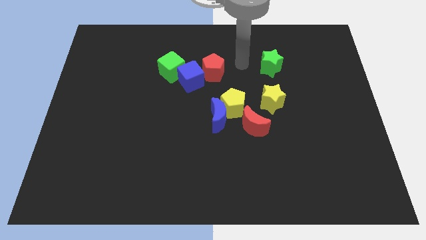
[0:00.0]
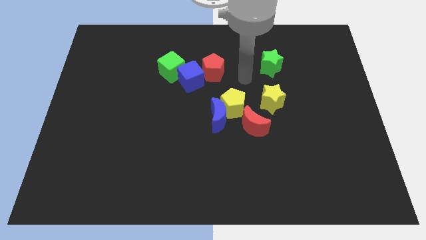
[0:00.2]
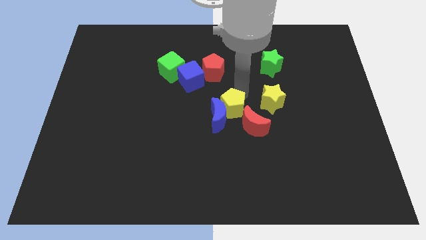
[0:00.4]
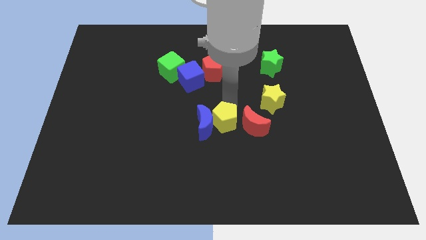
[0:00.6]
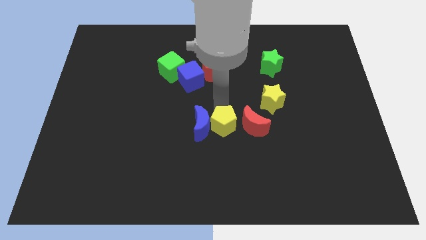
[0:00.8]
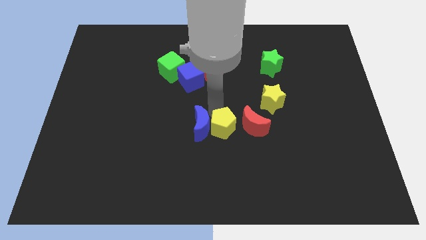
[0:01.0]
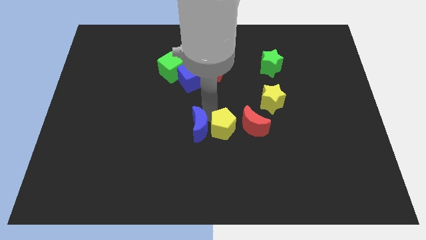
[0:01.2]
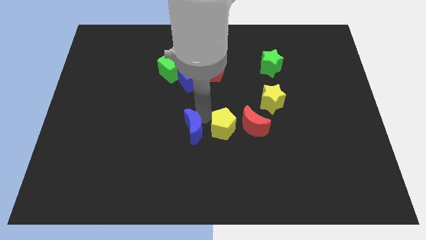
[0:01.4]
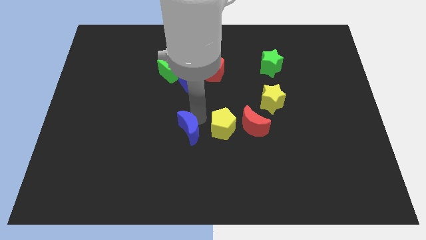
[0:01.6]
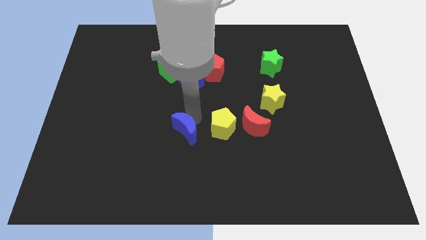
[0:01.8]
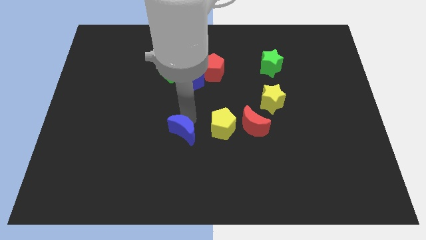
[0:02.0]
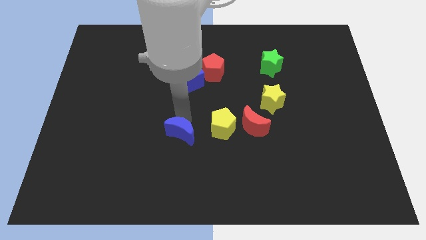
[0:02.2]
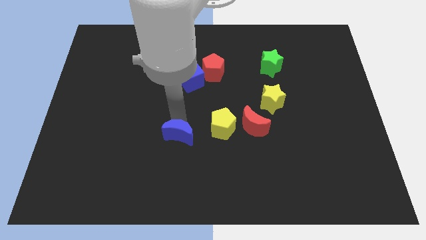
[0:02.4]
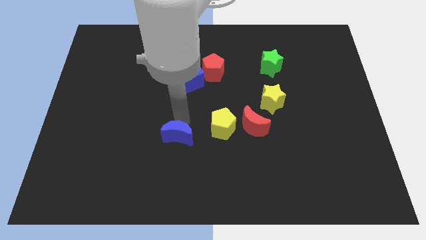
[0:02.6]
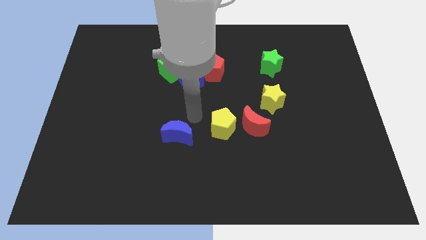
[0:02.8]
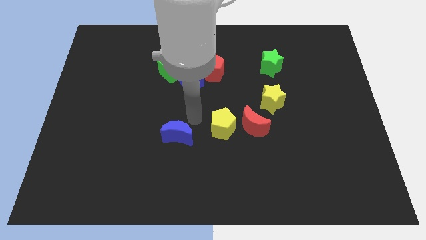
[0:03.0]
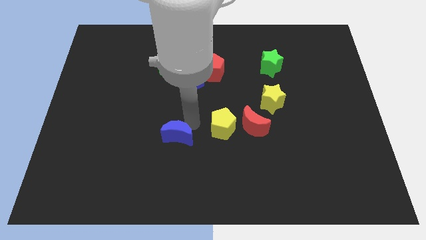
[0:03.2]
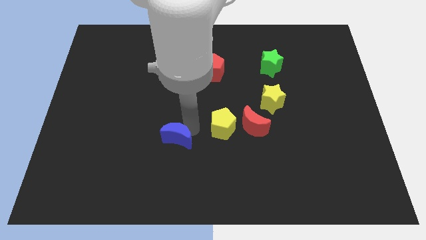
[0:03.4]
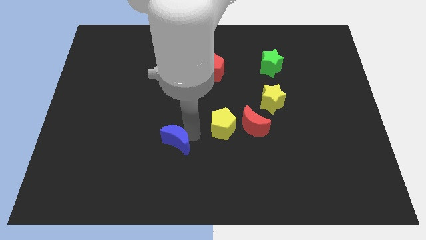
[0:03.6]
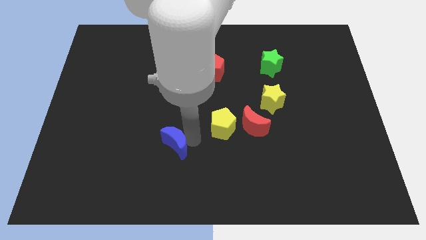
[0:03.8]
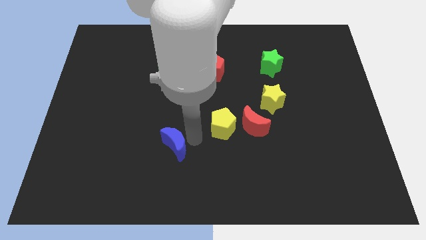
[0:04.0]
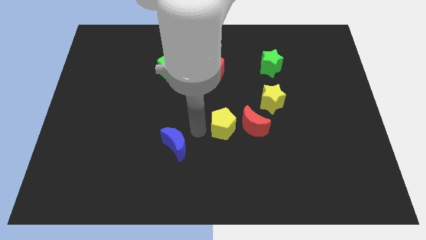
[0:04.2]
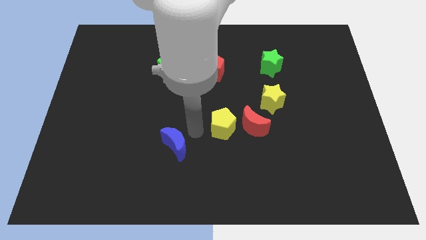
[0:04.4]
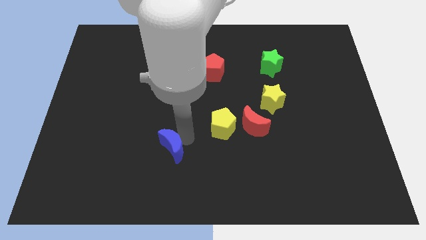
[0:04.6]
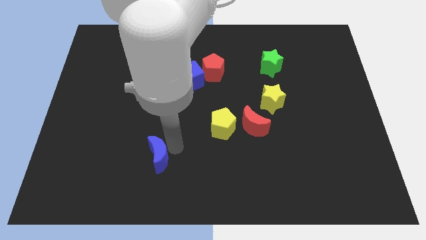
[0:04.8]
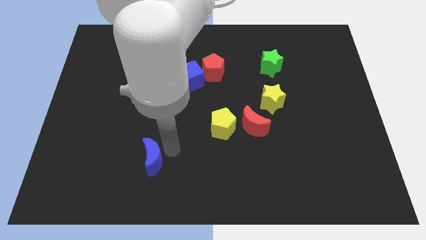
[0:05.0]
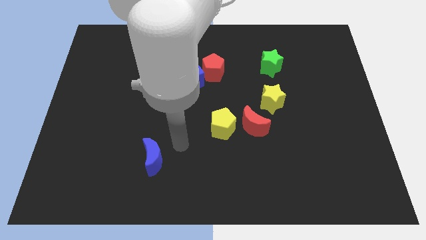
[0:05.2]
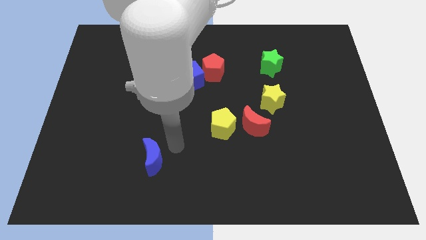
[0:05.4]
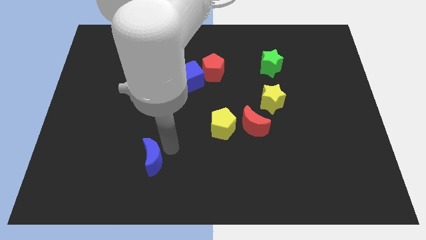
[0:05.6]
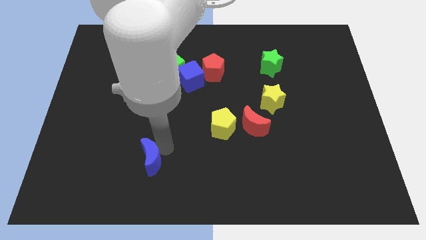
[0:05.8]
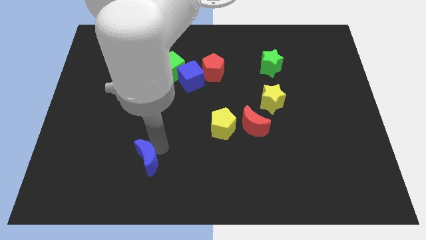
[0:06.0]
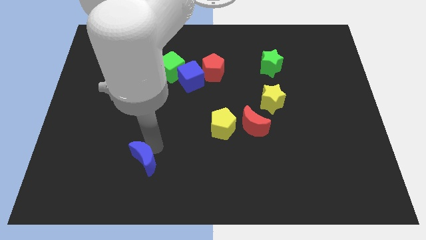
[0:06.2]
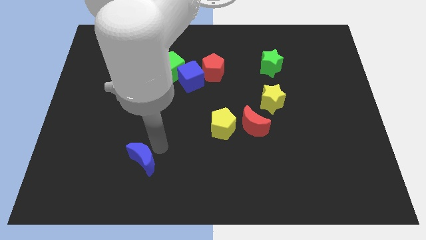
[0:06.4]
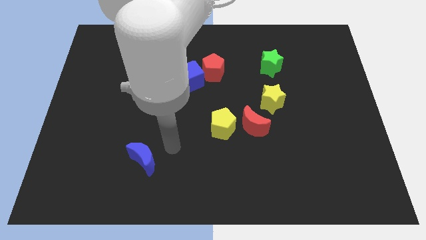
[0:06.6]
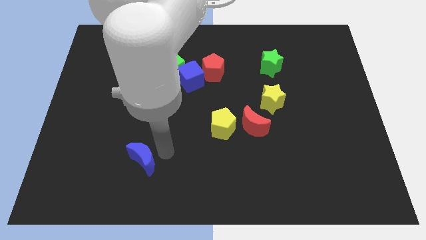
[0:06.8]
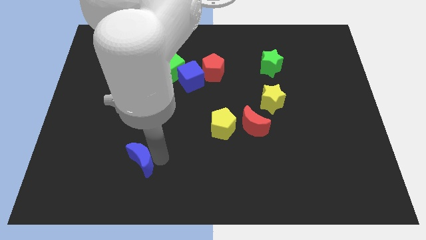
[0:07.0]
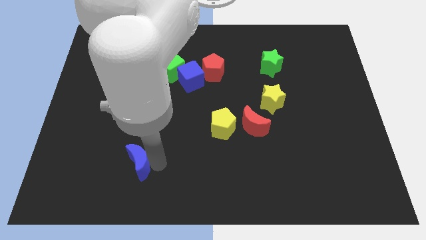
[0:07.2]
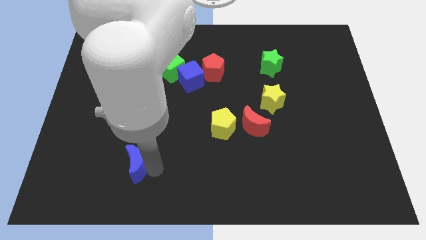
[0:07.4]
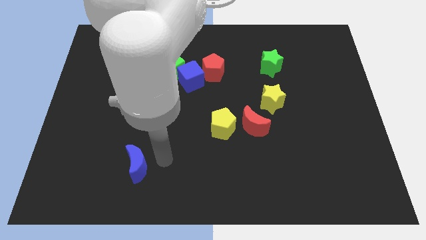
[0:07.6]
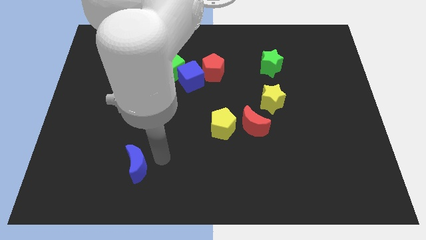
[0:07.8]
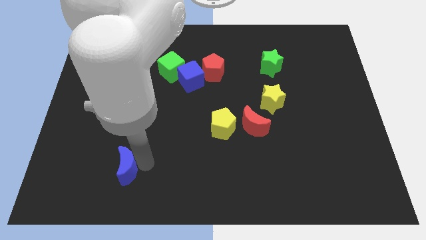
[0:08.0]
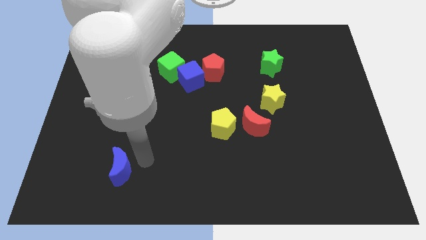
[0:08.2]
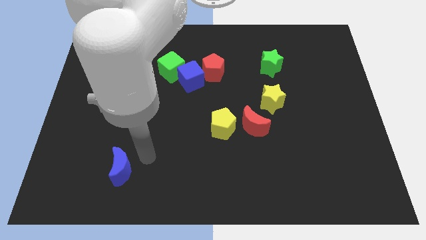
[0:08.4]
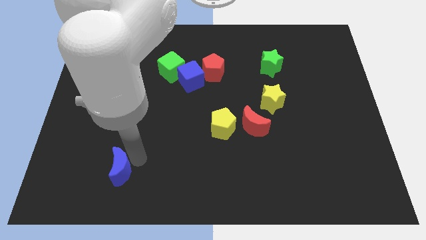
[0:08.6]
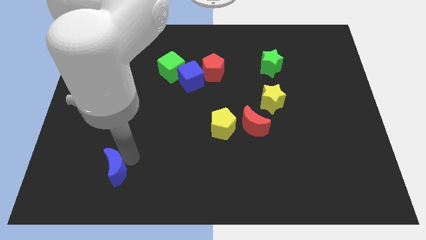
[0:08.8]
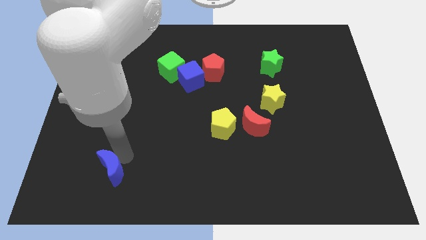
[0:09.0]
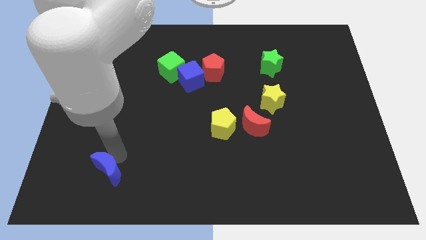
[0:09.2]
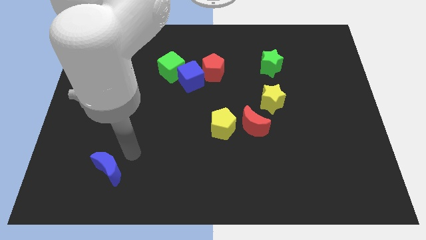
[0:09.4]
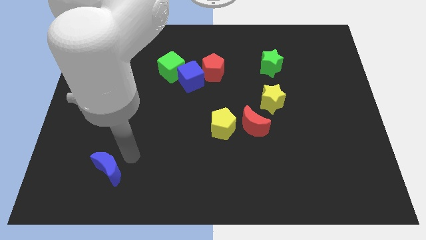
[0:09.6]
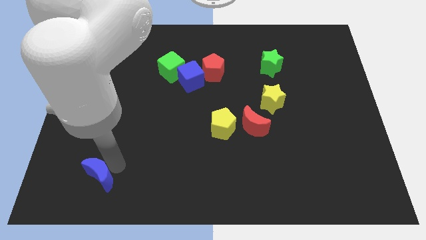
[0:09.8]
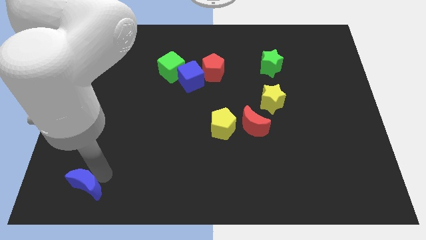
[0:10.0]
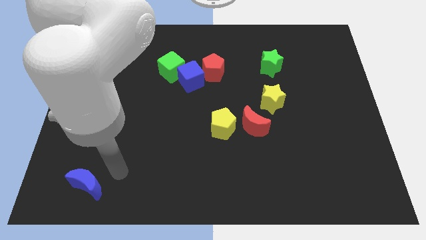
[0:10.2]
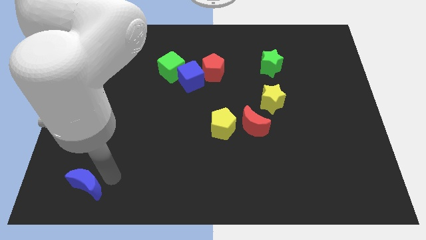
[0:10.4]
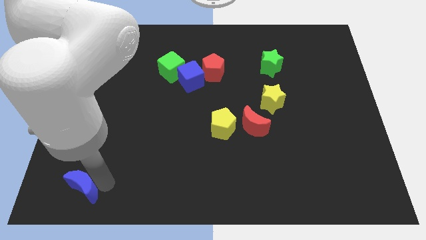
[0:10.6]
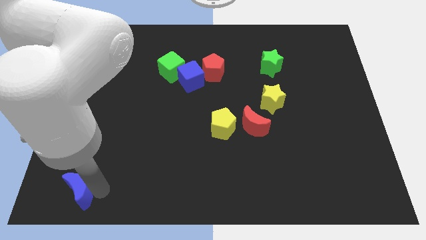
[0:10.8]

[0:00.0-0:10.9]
move the blue moon to the bottom left corner

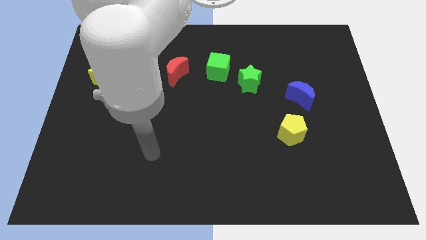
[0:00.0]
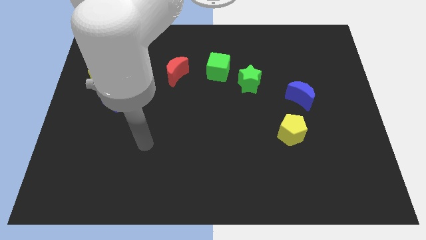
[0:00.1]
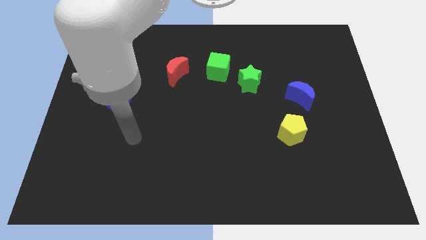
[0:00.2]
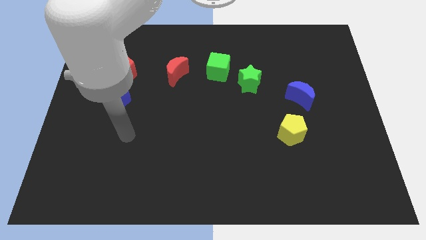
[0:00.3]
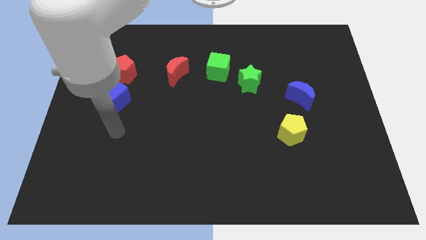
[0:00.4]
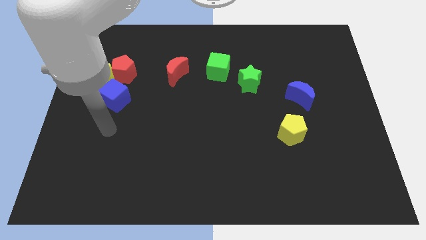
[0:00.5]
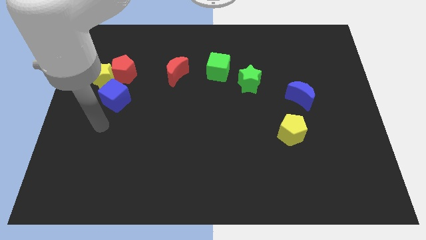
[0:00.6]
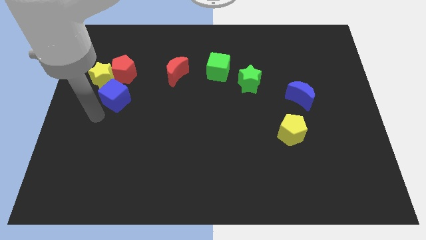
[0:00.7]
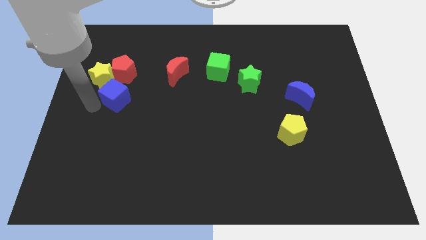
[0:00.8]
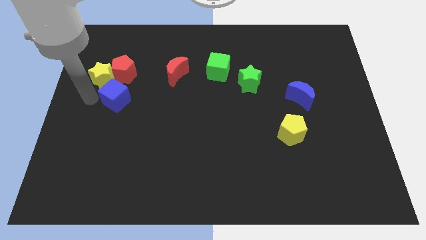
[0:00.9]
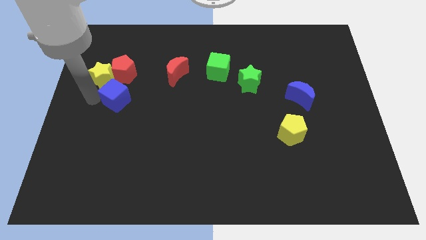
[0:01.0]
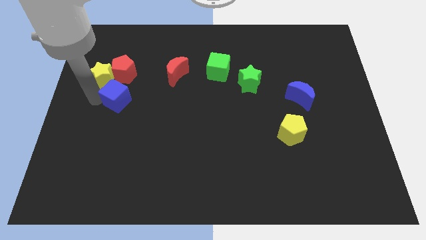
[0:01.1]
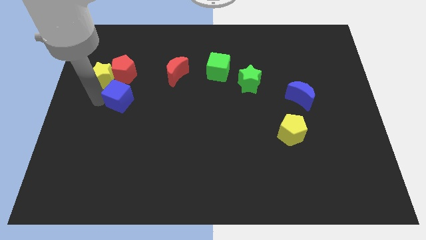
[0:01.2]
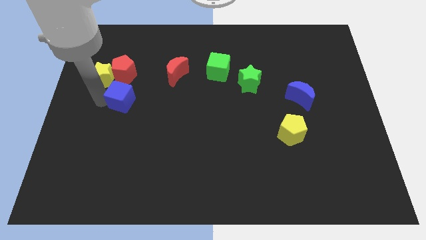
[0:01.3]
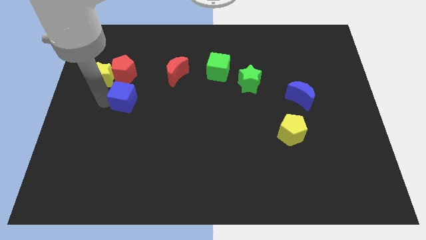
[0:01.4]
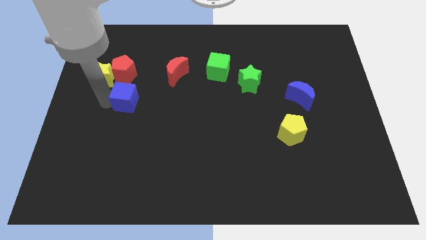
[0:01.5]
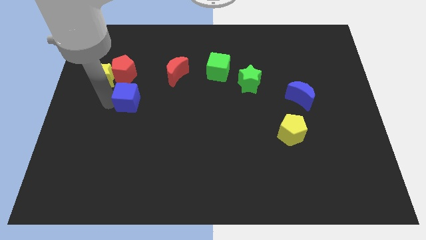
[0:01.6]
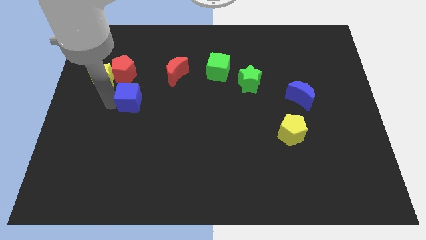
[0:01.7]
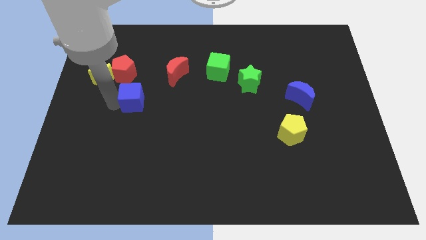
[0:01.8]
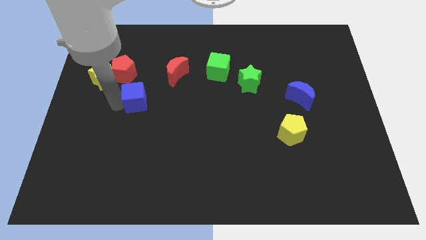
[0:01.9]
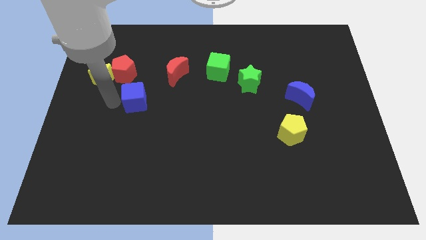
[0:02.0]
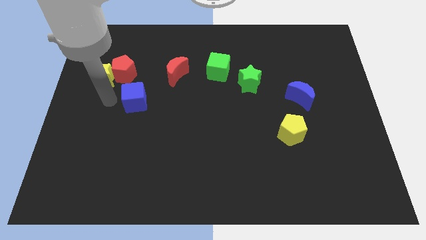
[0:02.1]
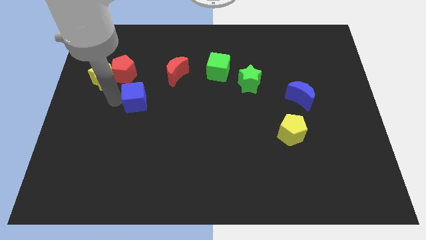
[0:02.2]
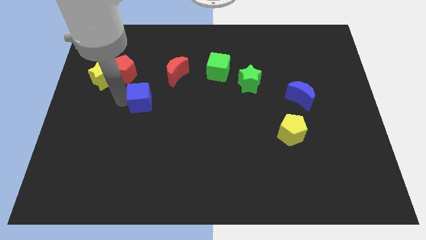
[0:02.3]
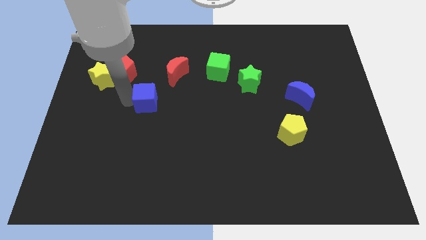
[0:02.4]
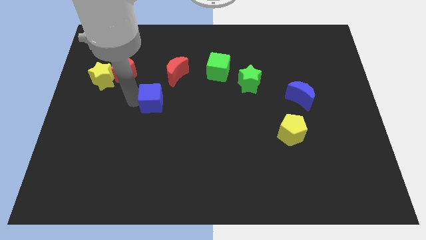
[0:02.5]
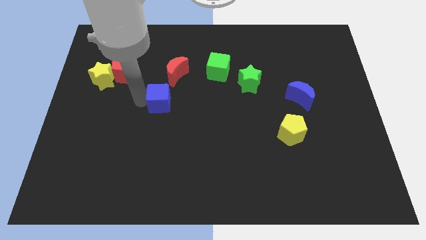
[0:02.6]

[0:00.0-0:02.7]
slide the blue cube to the center of the board
